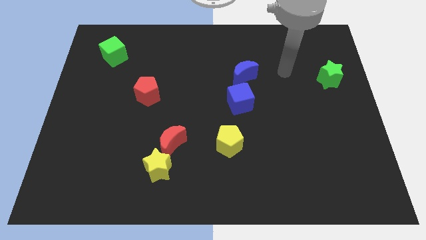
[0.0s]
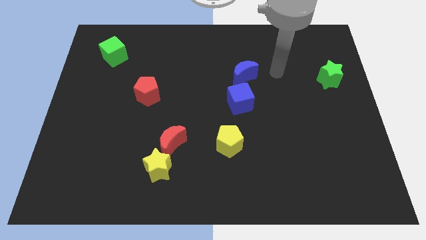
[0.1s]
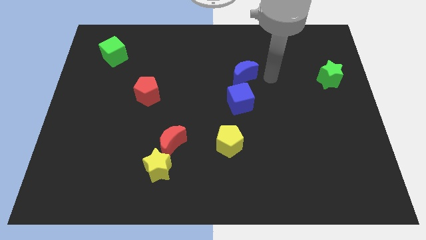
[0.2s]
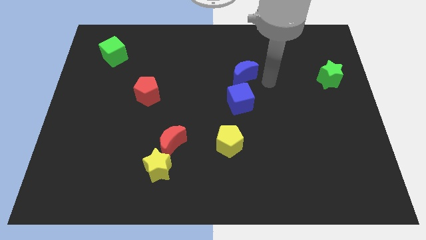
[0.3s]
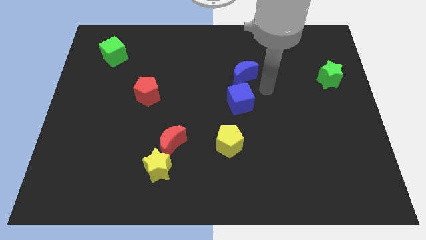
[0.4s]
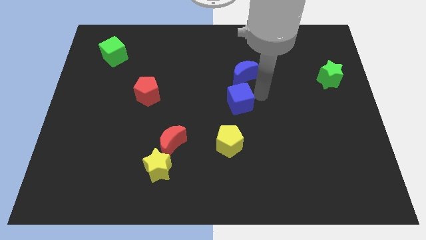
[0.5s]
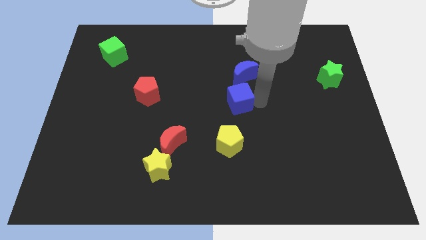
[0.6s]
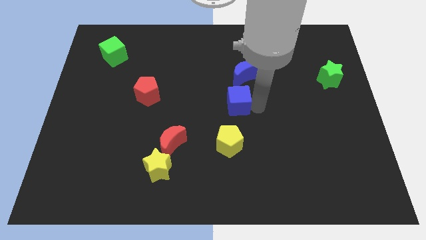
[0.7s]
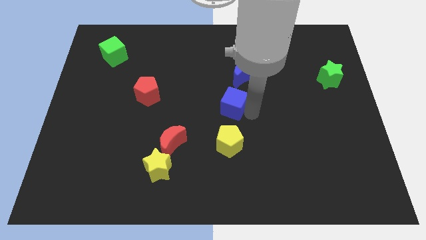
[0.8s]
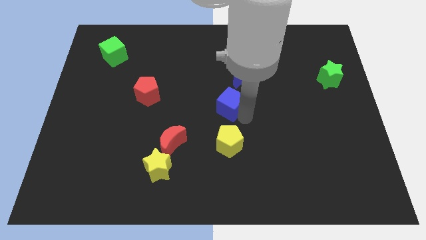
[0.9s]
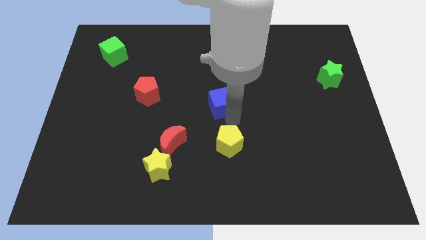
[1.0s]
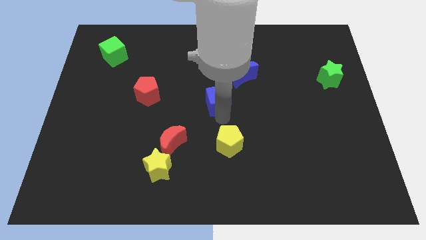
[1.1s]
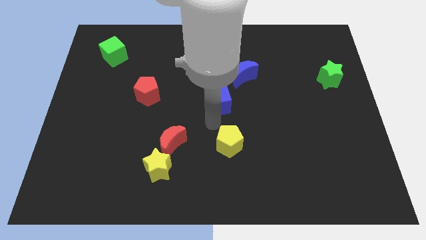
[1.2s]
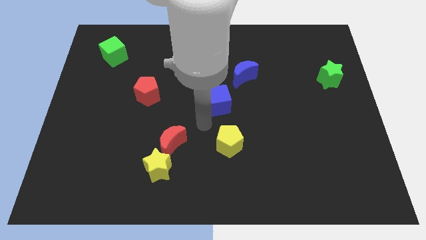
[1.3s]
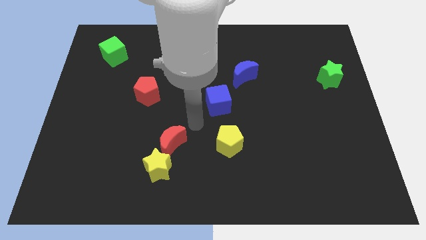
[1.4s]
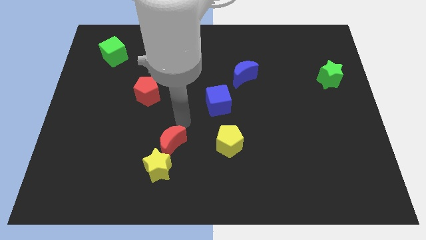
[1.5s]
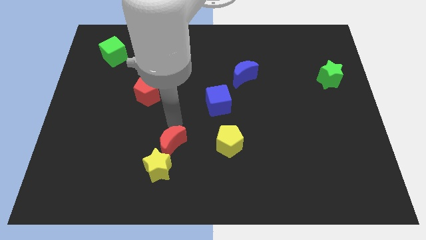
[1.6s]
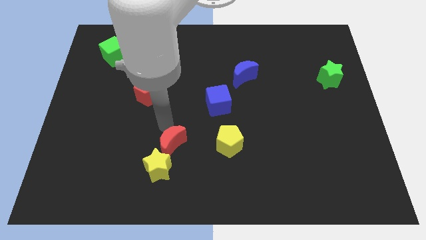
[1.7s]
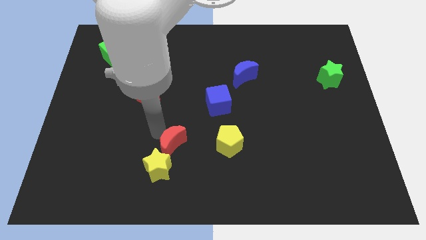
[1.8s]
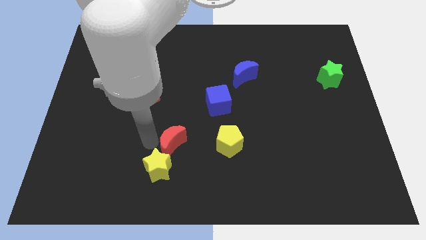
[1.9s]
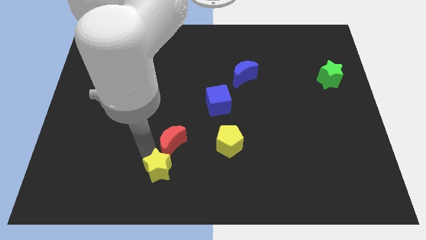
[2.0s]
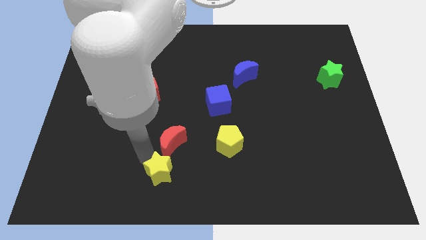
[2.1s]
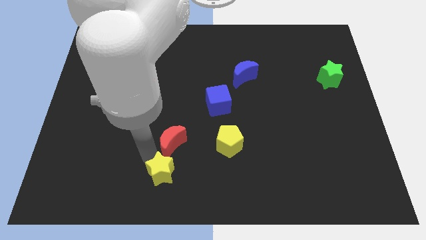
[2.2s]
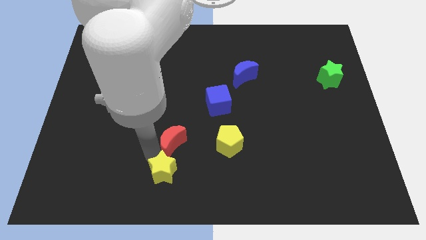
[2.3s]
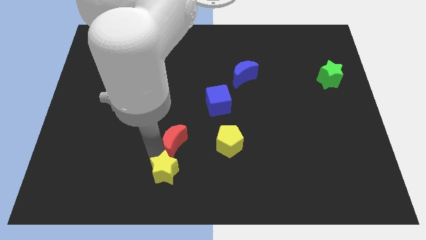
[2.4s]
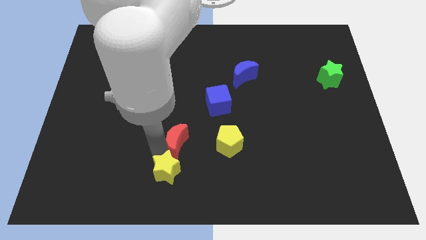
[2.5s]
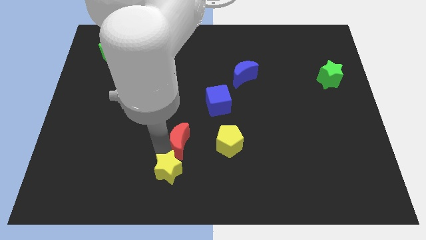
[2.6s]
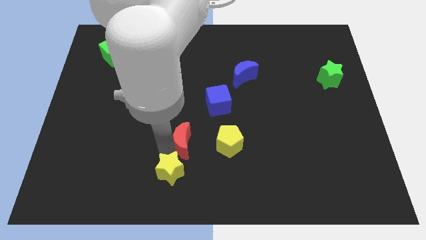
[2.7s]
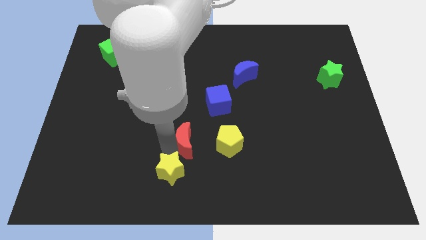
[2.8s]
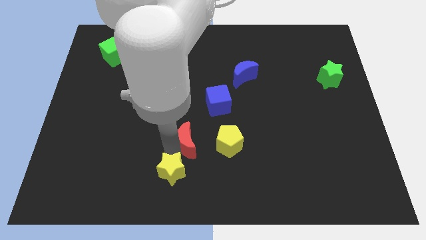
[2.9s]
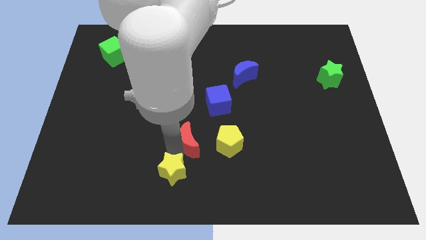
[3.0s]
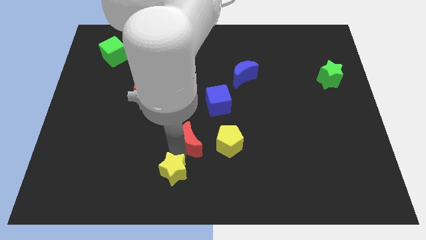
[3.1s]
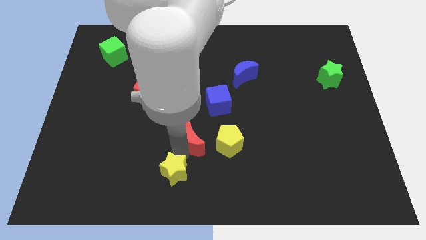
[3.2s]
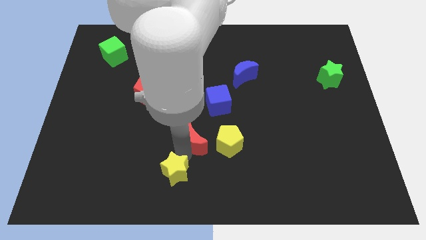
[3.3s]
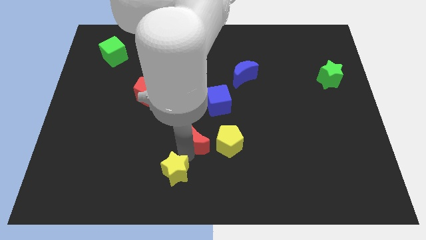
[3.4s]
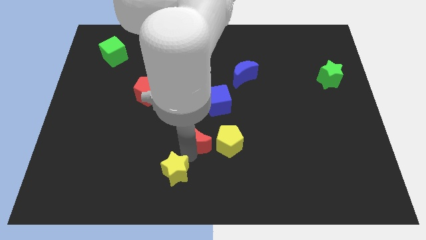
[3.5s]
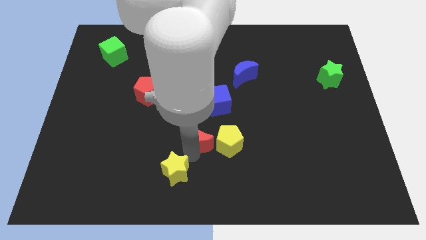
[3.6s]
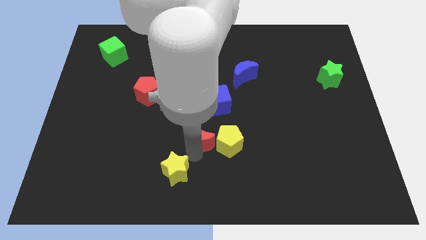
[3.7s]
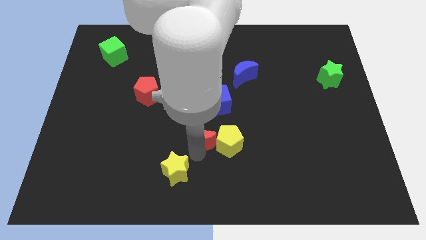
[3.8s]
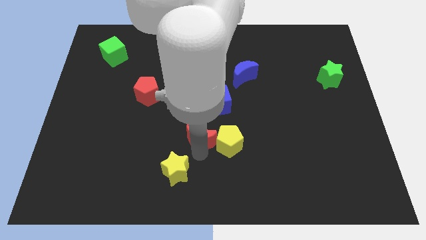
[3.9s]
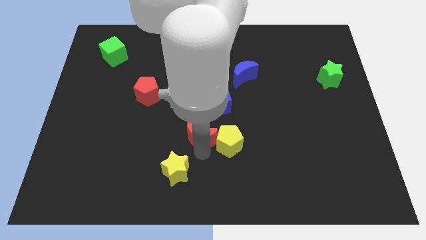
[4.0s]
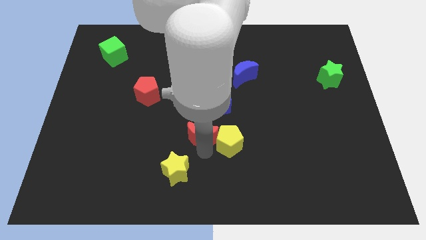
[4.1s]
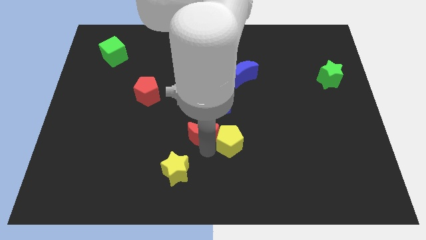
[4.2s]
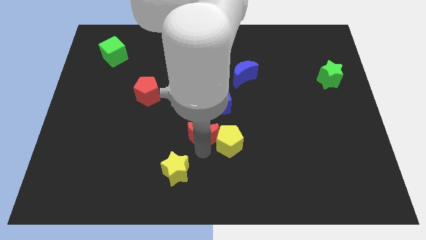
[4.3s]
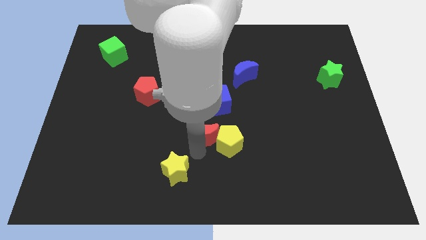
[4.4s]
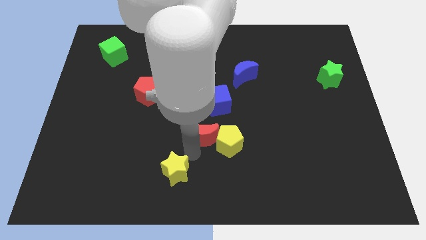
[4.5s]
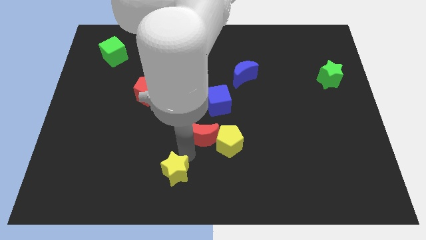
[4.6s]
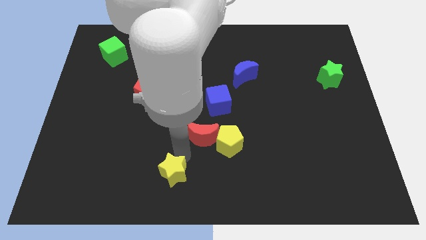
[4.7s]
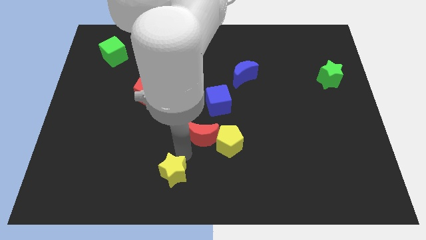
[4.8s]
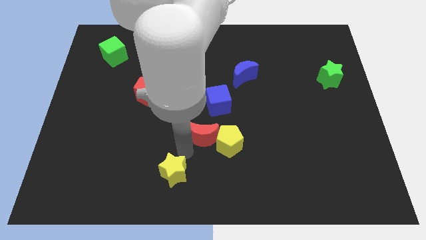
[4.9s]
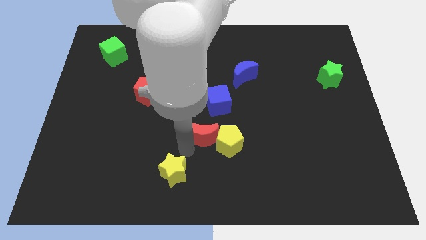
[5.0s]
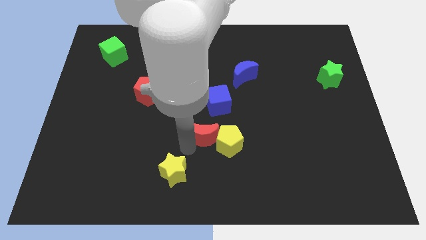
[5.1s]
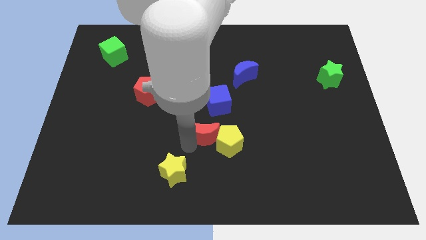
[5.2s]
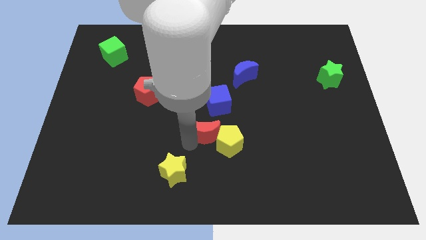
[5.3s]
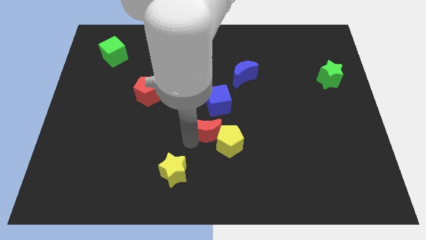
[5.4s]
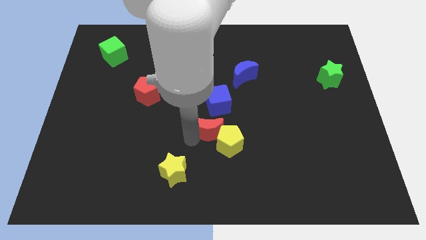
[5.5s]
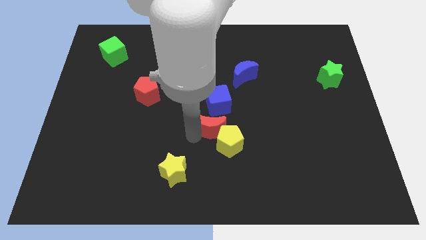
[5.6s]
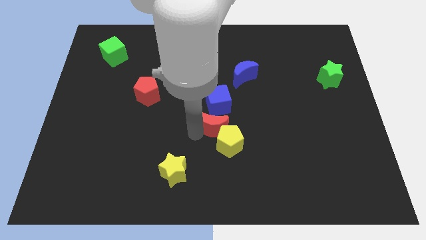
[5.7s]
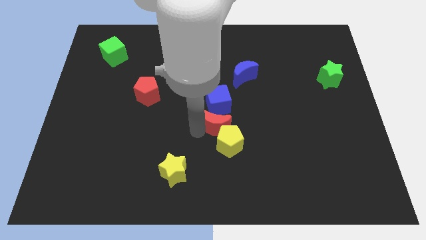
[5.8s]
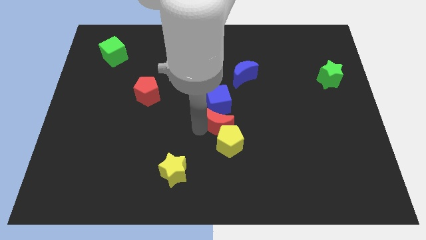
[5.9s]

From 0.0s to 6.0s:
put the red moon to the bottom right side of the blue cube

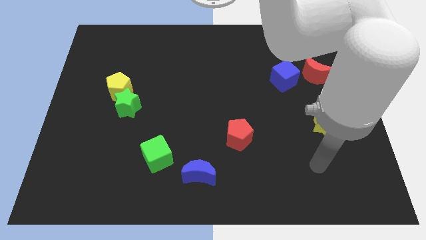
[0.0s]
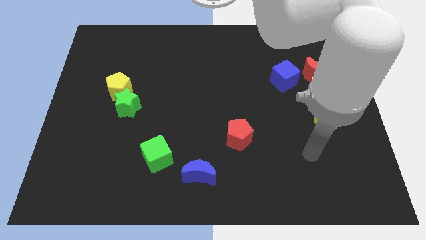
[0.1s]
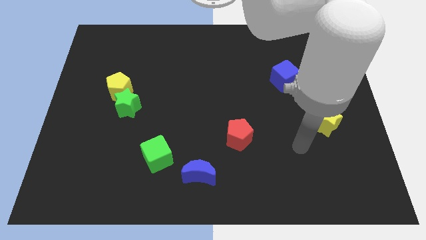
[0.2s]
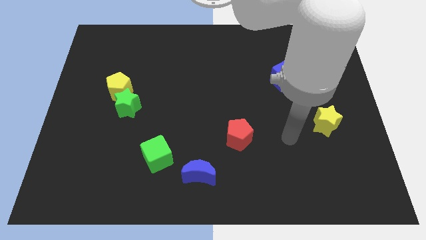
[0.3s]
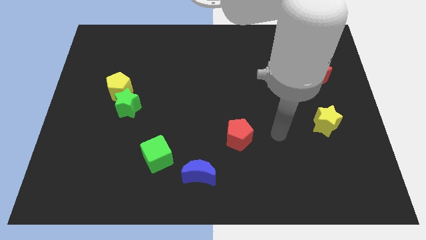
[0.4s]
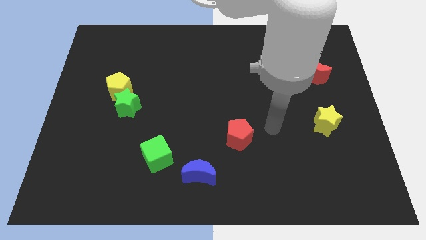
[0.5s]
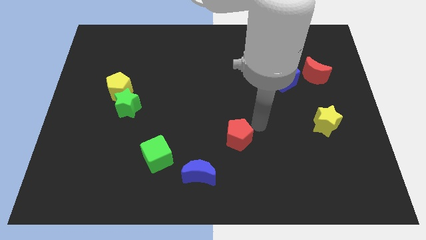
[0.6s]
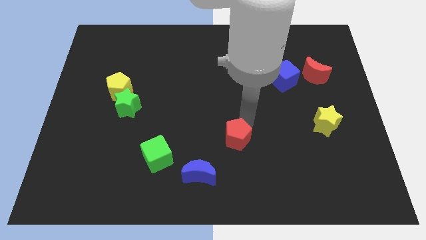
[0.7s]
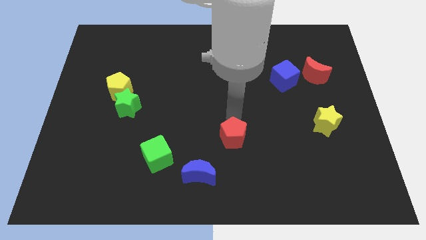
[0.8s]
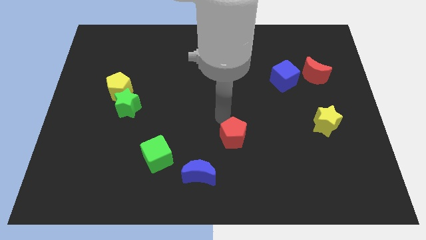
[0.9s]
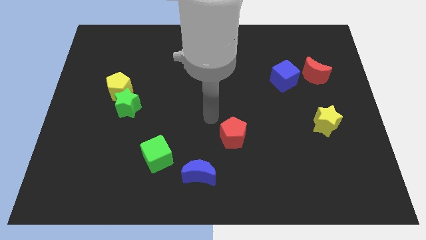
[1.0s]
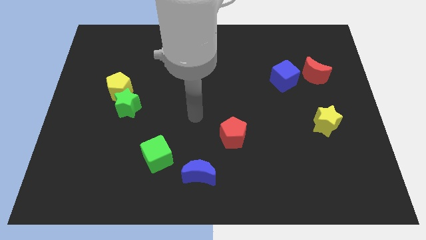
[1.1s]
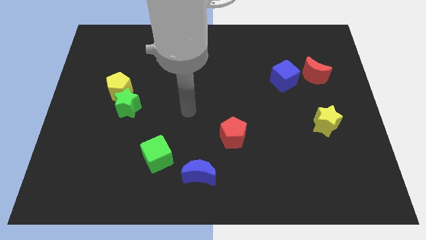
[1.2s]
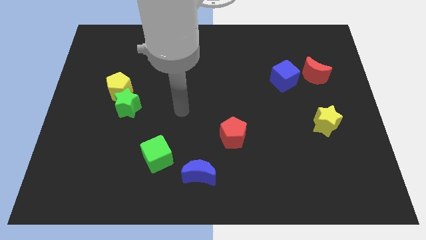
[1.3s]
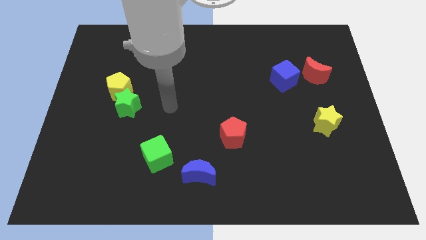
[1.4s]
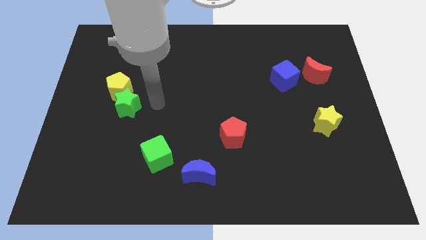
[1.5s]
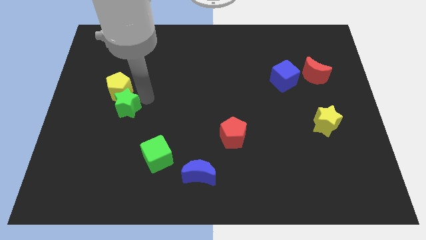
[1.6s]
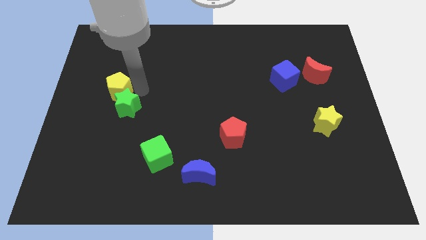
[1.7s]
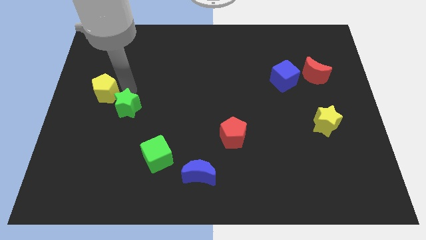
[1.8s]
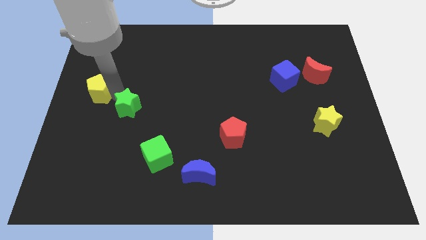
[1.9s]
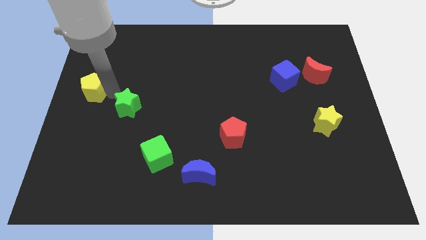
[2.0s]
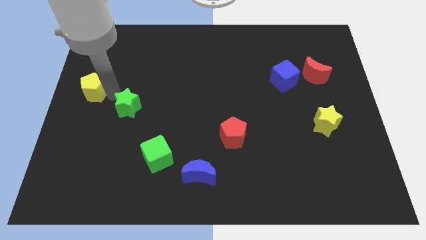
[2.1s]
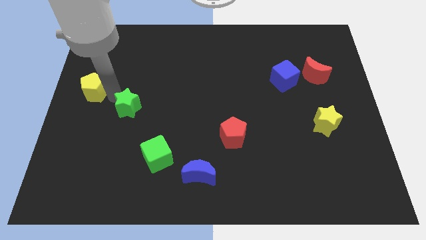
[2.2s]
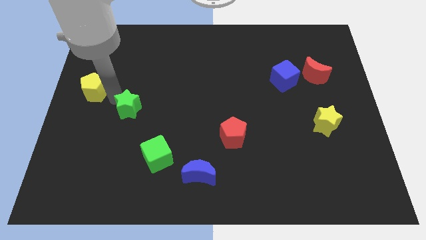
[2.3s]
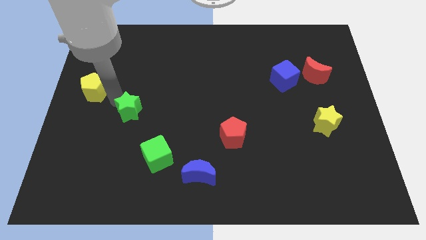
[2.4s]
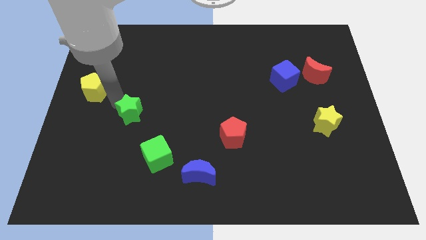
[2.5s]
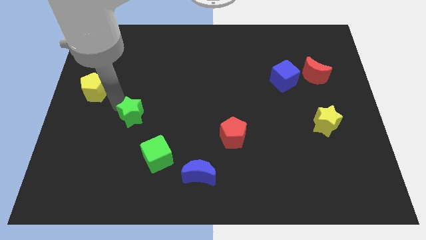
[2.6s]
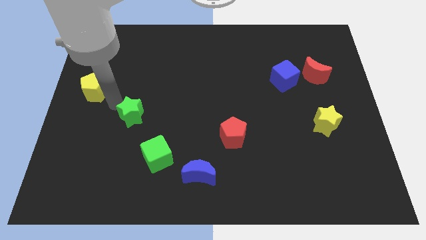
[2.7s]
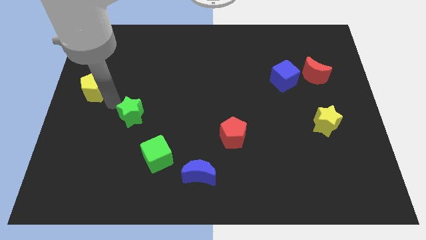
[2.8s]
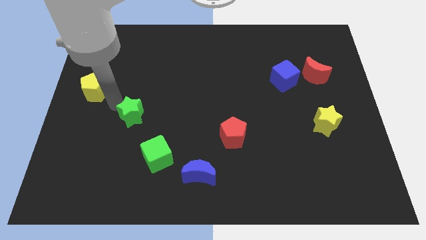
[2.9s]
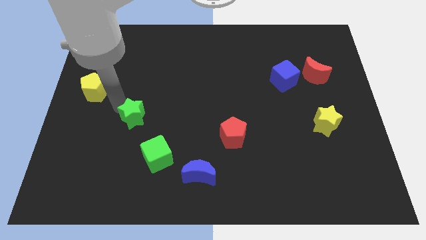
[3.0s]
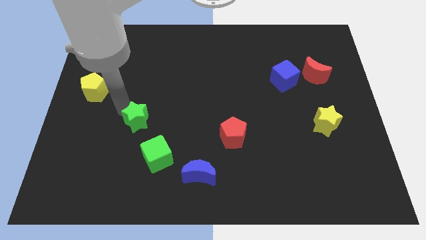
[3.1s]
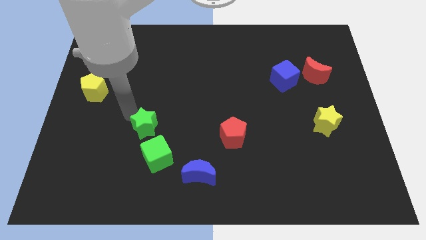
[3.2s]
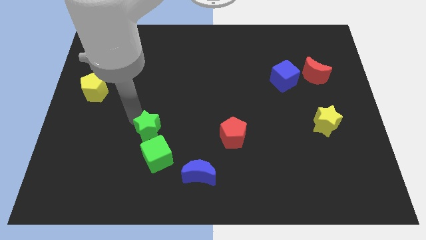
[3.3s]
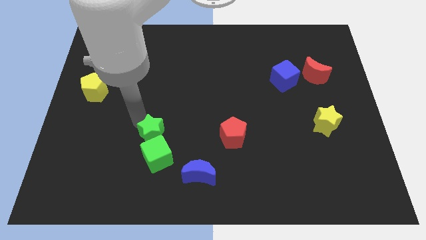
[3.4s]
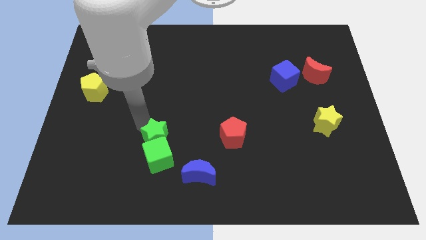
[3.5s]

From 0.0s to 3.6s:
push the green star to the top left side of the blue moon
